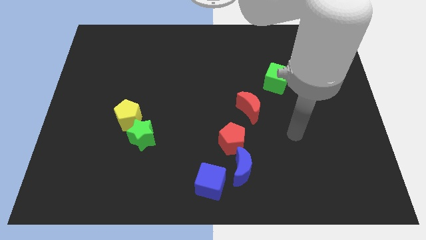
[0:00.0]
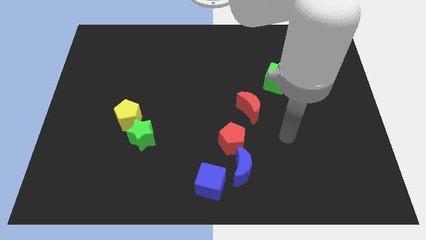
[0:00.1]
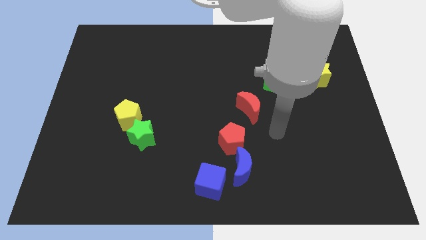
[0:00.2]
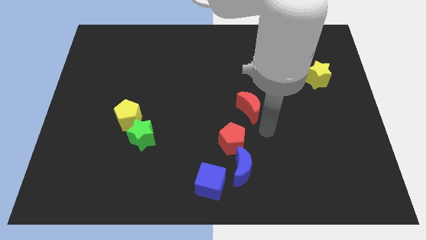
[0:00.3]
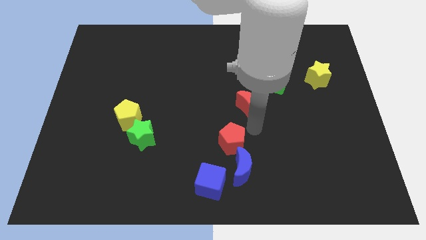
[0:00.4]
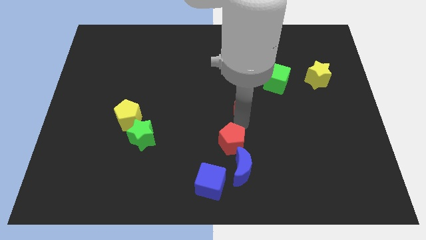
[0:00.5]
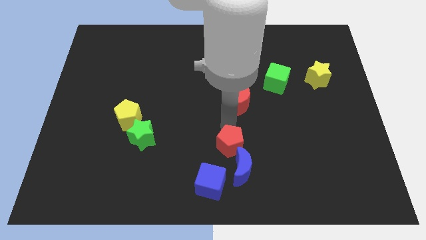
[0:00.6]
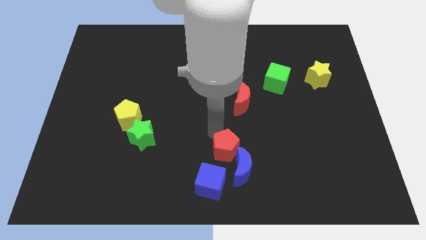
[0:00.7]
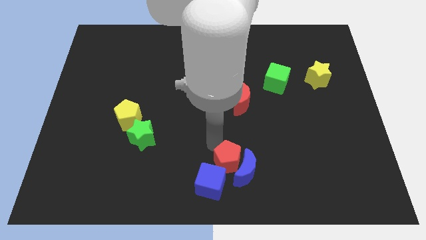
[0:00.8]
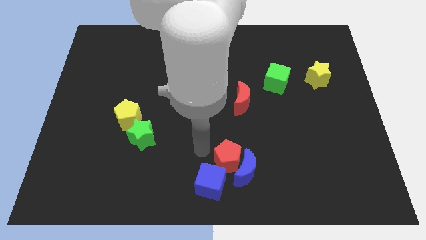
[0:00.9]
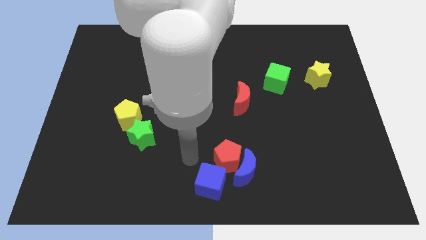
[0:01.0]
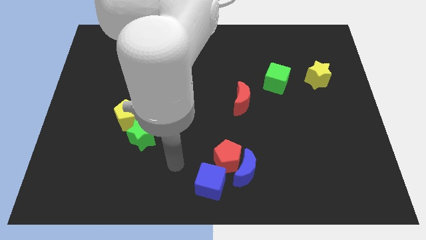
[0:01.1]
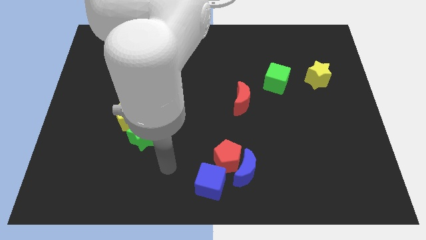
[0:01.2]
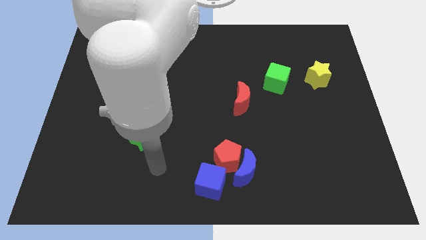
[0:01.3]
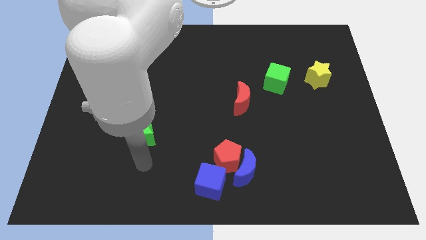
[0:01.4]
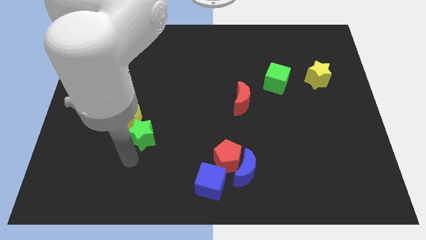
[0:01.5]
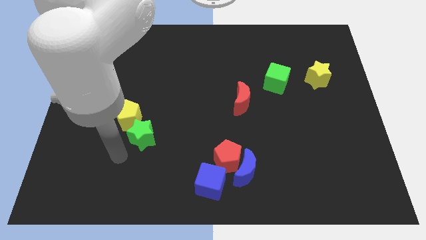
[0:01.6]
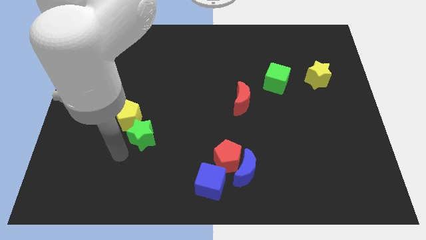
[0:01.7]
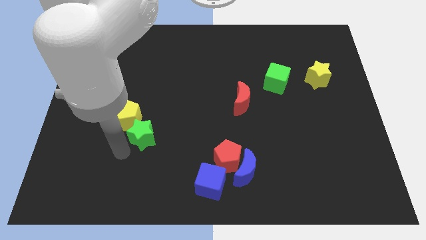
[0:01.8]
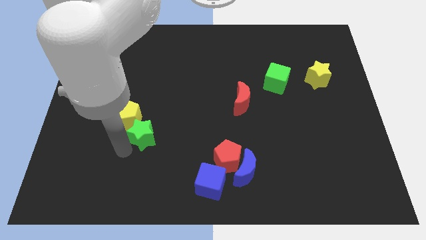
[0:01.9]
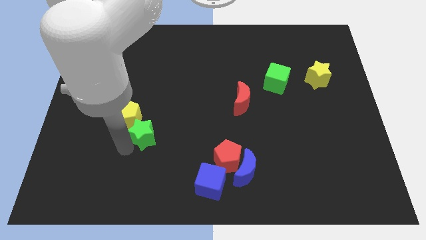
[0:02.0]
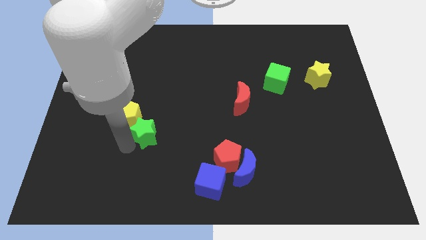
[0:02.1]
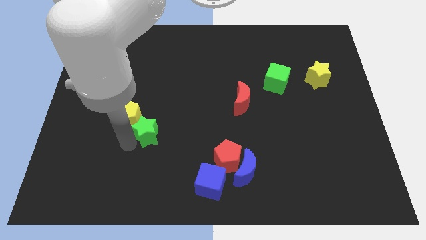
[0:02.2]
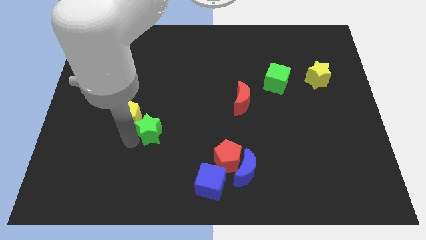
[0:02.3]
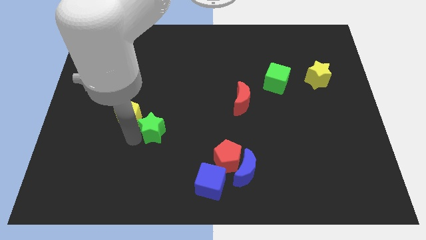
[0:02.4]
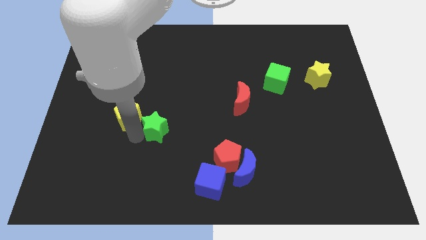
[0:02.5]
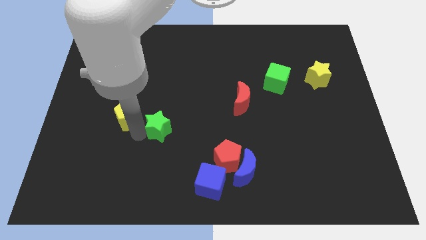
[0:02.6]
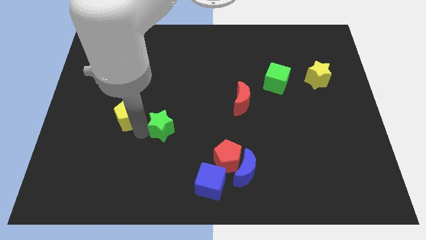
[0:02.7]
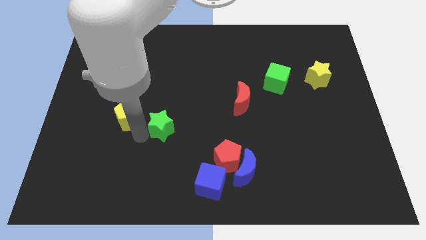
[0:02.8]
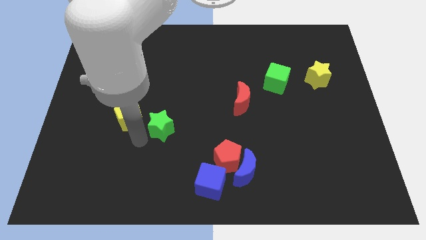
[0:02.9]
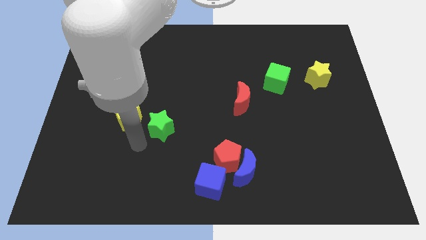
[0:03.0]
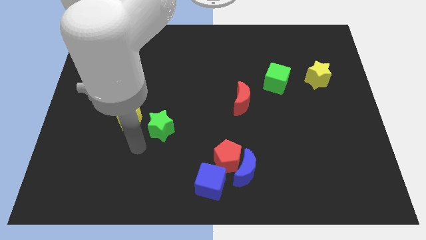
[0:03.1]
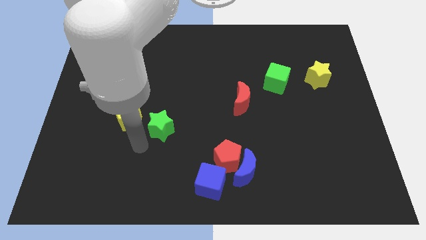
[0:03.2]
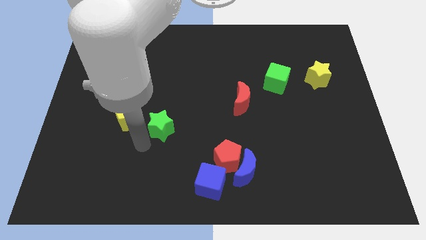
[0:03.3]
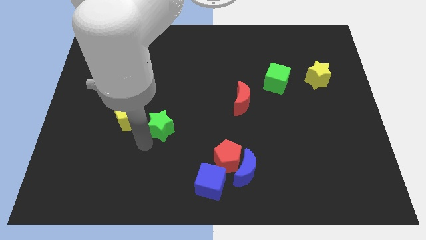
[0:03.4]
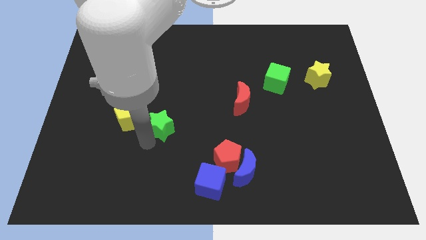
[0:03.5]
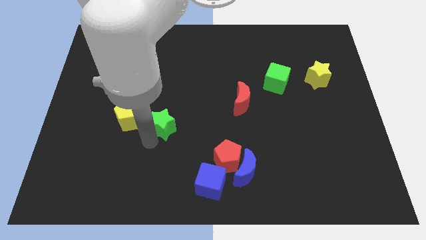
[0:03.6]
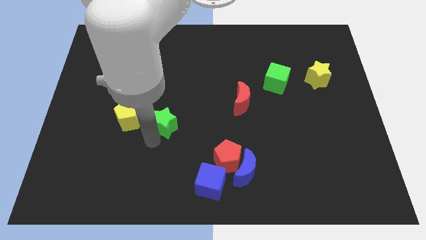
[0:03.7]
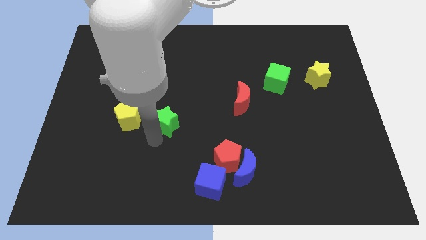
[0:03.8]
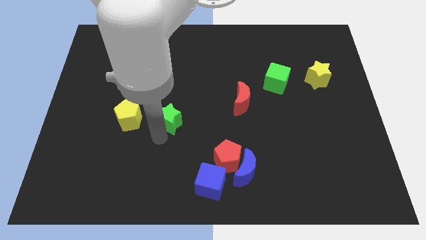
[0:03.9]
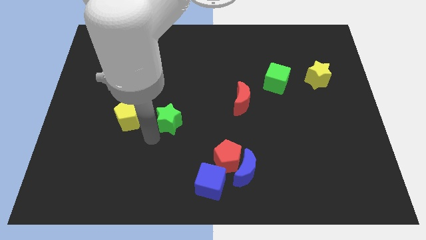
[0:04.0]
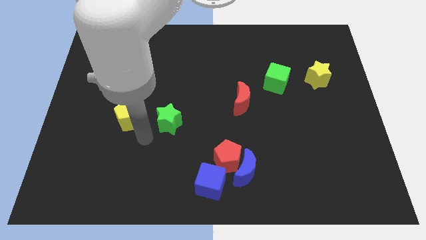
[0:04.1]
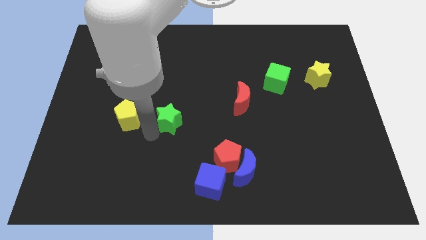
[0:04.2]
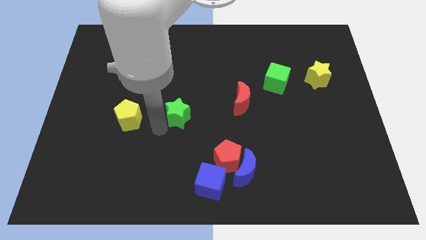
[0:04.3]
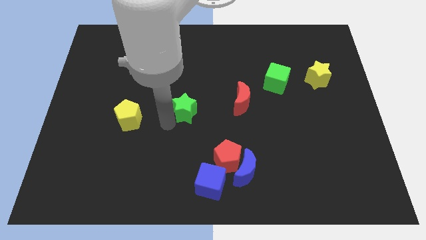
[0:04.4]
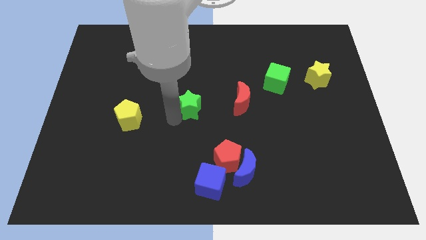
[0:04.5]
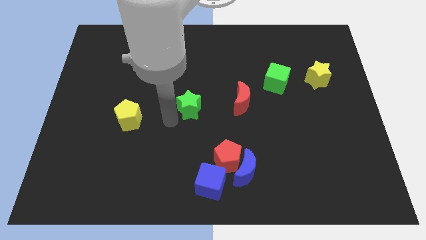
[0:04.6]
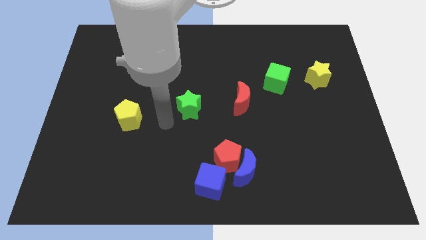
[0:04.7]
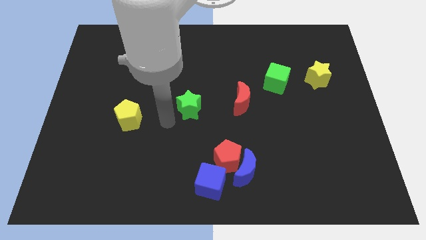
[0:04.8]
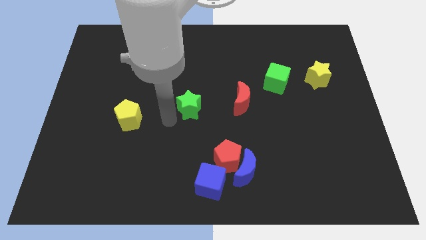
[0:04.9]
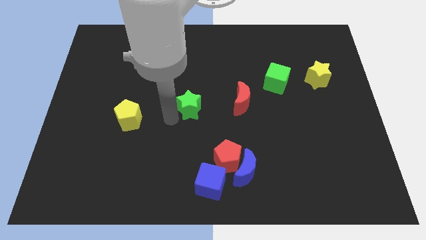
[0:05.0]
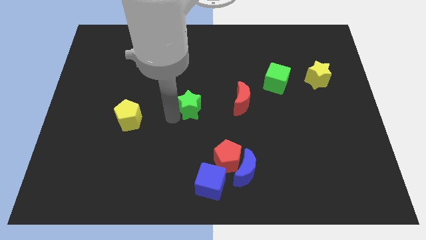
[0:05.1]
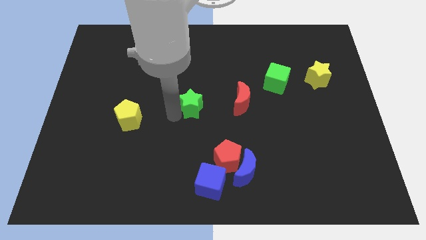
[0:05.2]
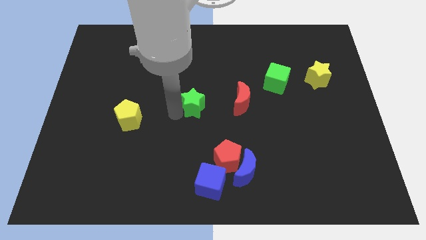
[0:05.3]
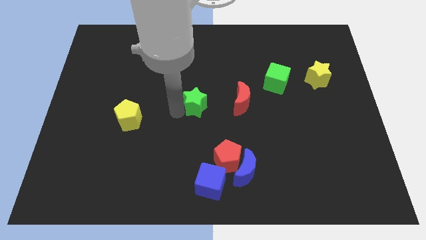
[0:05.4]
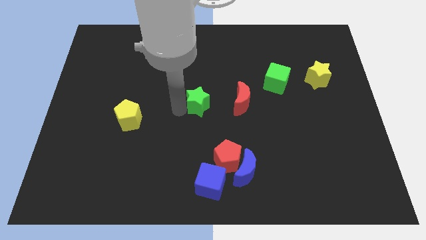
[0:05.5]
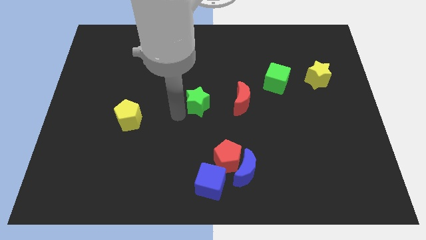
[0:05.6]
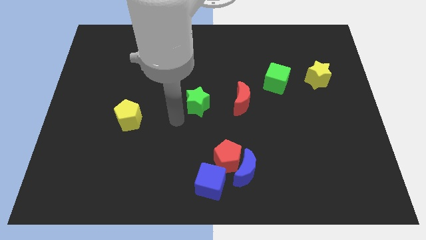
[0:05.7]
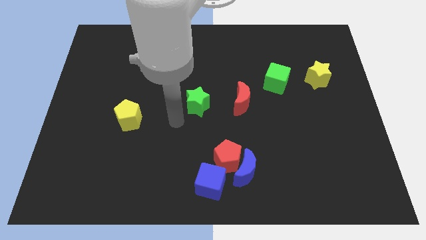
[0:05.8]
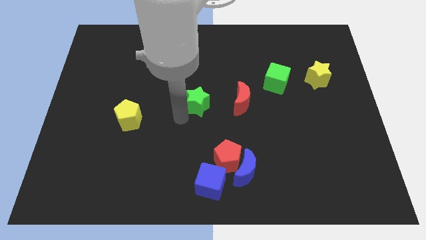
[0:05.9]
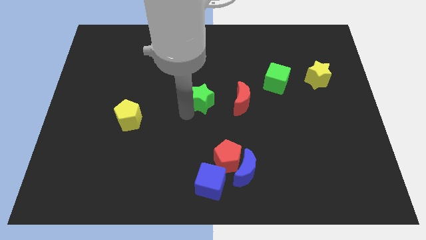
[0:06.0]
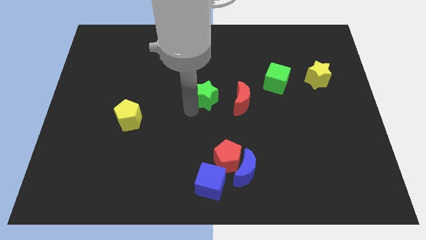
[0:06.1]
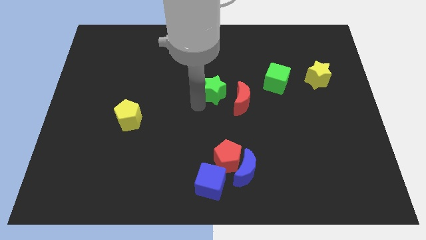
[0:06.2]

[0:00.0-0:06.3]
slide the green star up and right

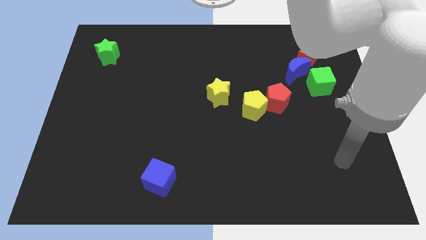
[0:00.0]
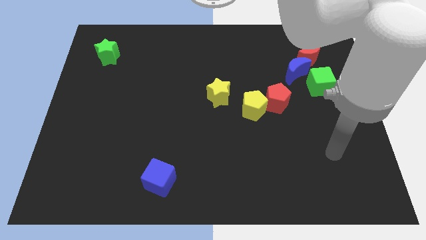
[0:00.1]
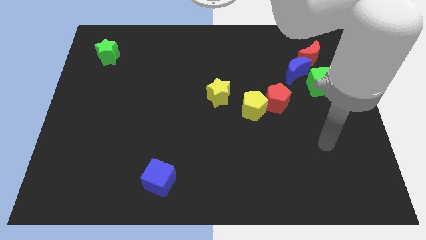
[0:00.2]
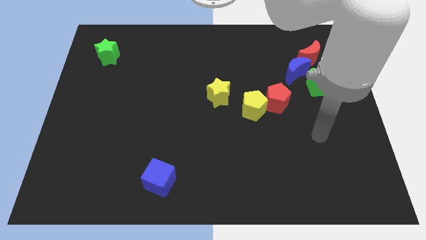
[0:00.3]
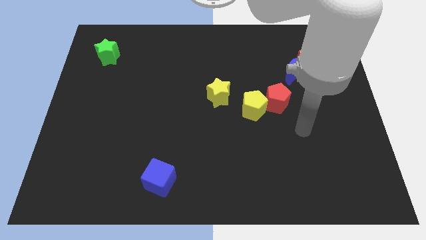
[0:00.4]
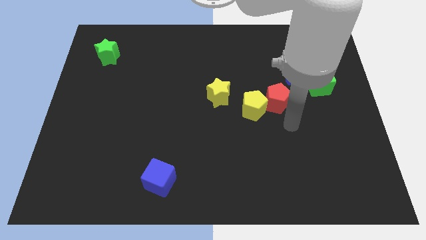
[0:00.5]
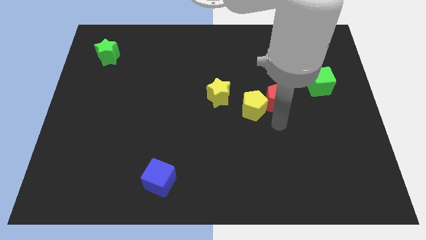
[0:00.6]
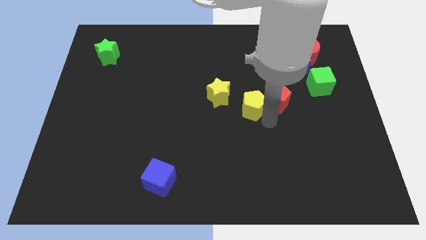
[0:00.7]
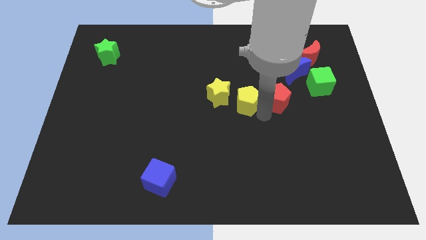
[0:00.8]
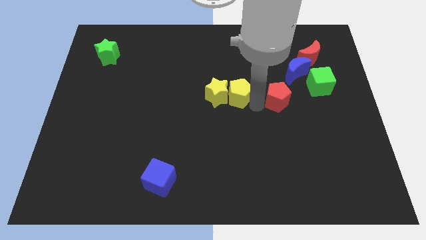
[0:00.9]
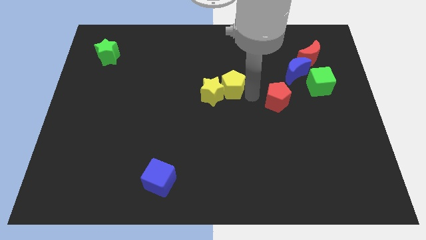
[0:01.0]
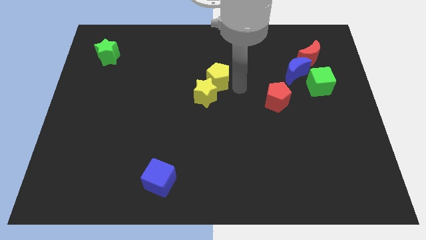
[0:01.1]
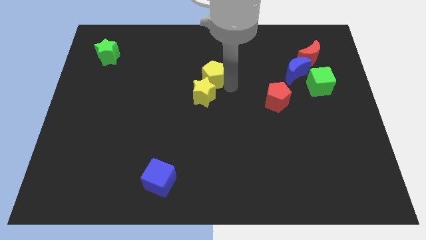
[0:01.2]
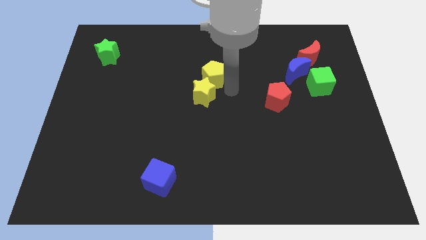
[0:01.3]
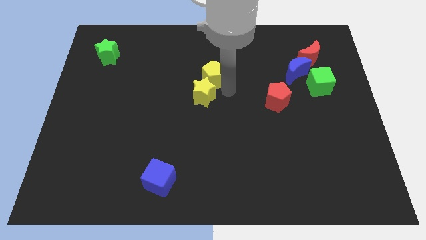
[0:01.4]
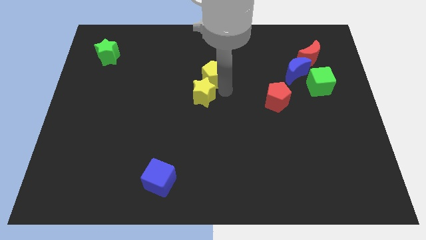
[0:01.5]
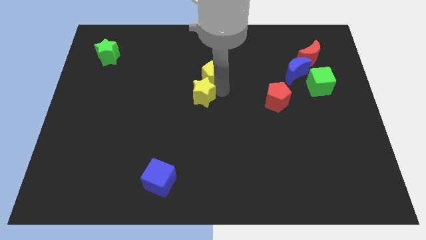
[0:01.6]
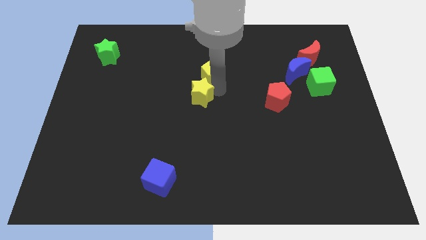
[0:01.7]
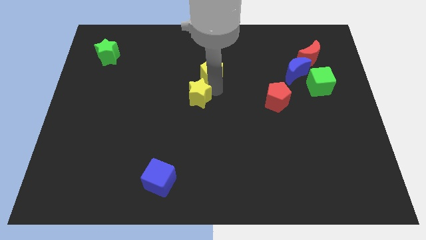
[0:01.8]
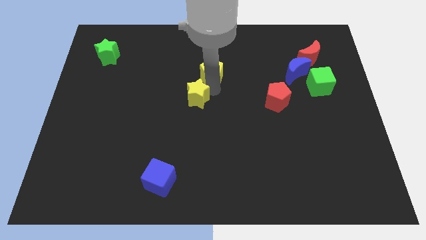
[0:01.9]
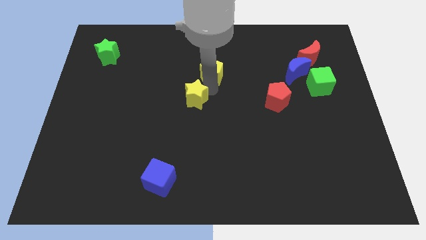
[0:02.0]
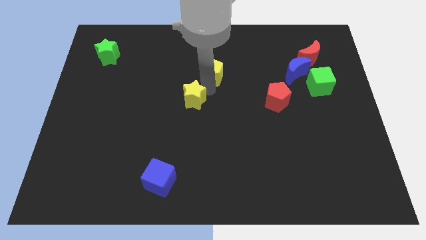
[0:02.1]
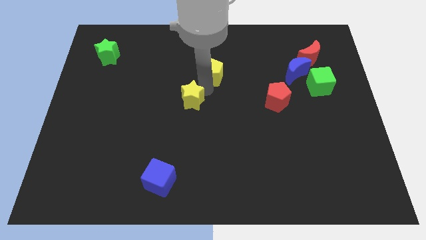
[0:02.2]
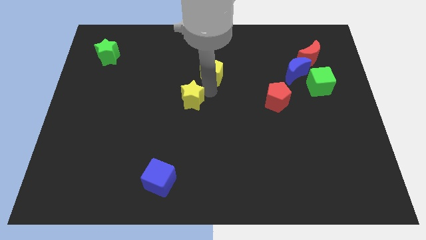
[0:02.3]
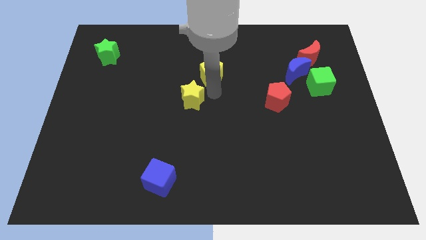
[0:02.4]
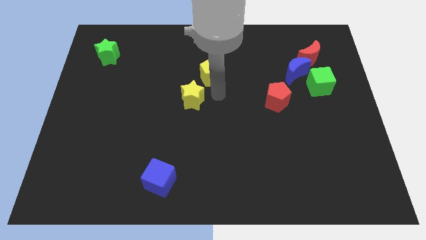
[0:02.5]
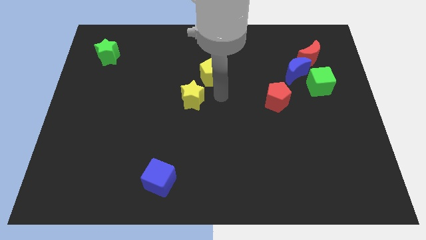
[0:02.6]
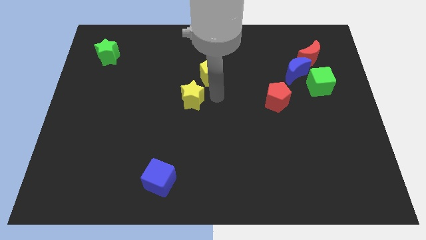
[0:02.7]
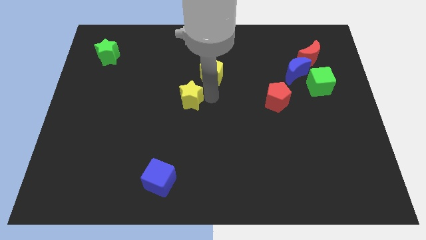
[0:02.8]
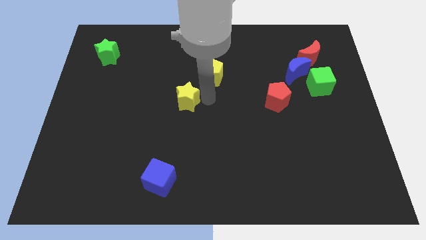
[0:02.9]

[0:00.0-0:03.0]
slightly move the yellow star left
